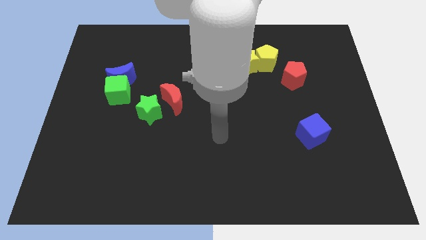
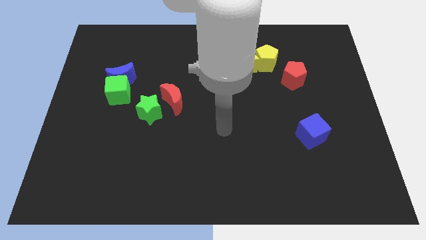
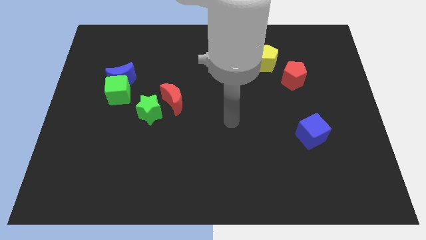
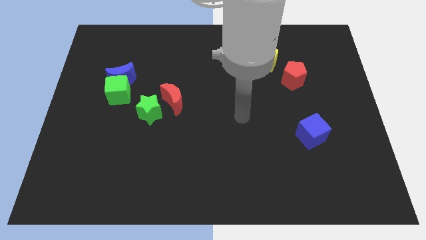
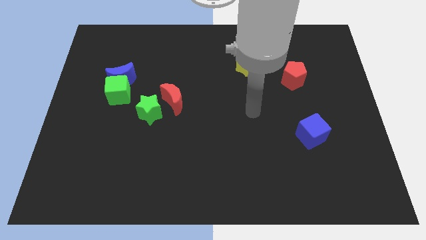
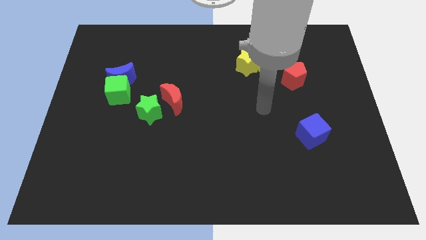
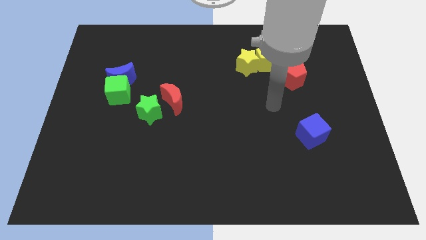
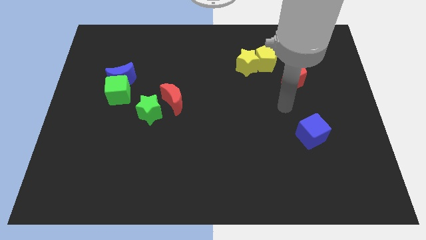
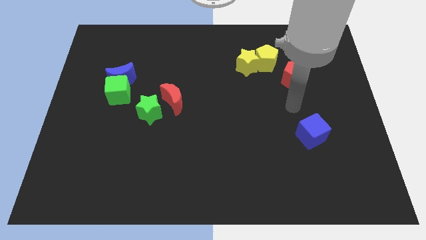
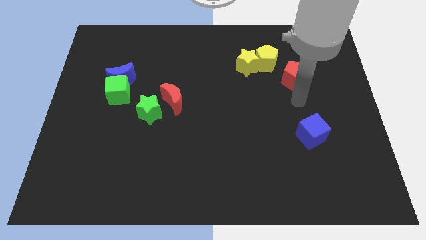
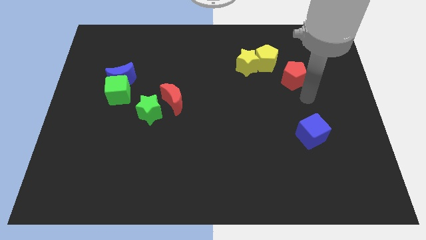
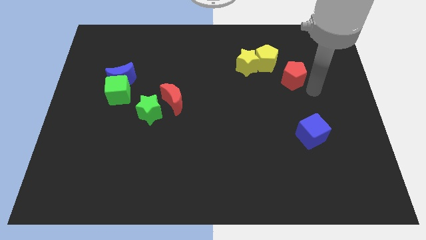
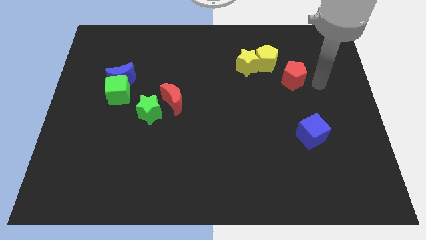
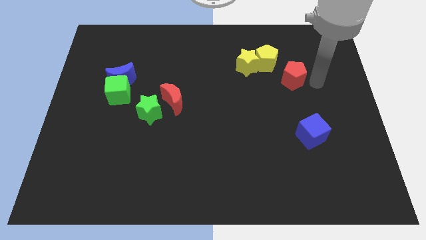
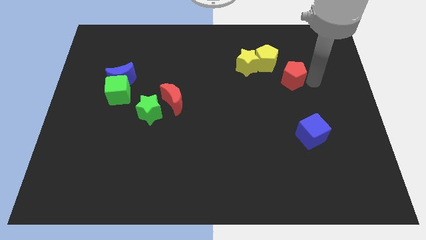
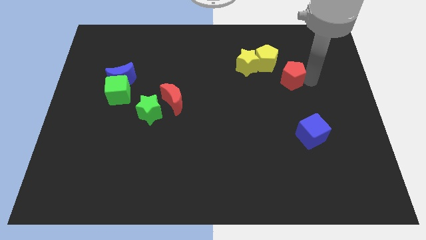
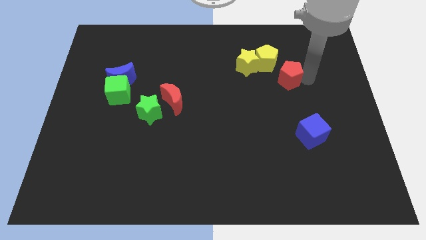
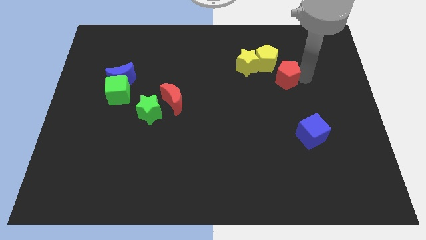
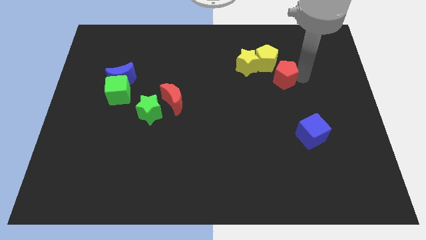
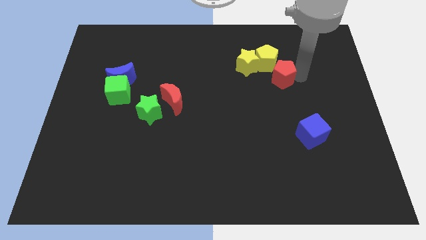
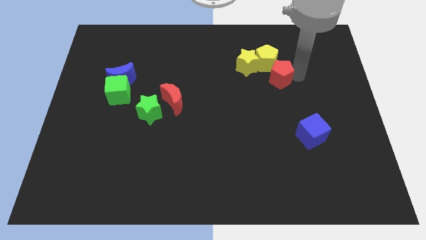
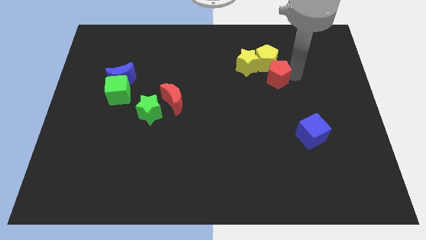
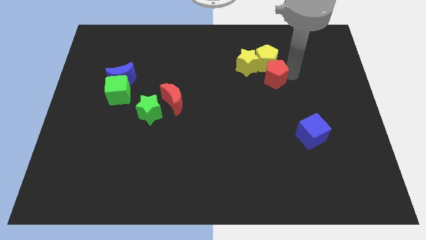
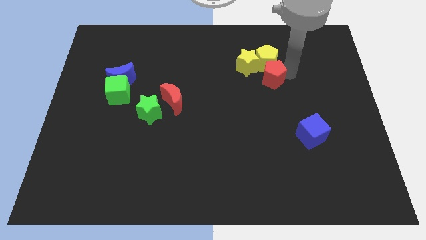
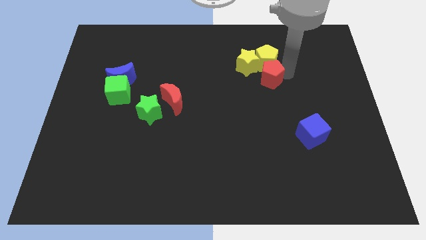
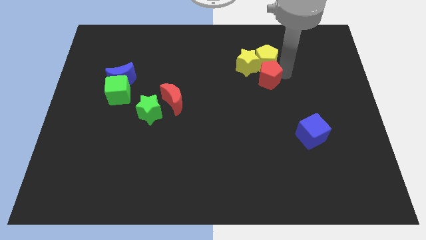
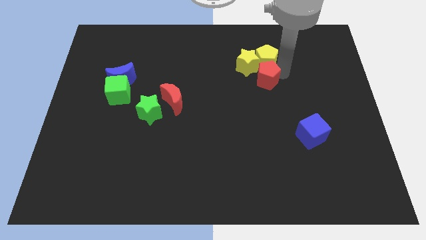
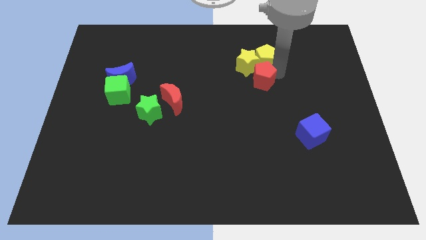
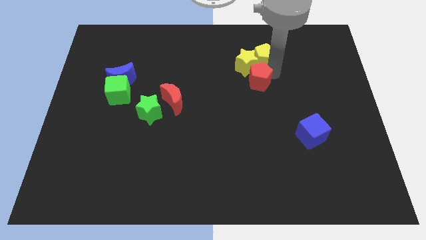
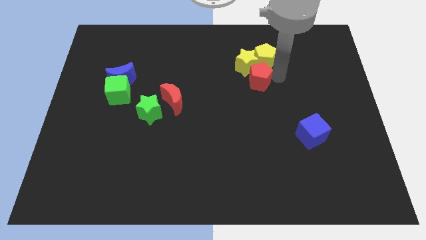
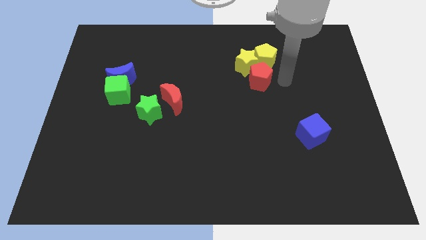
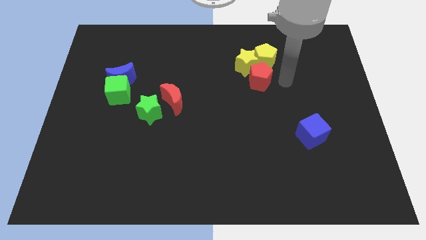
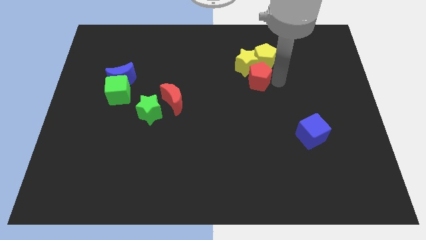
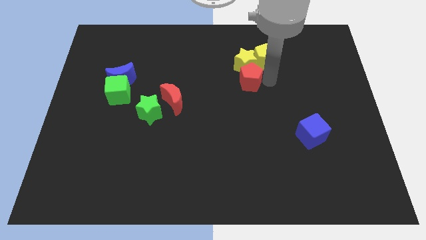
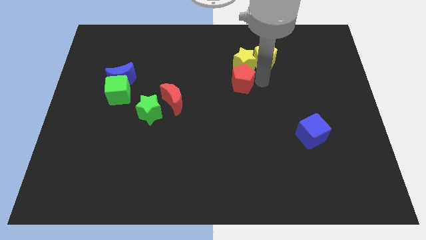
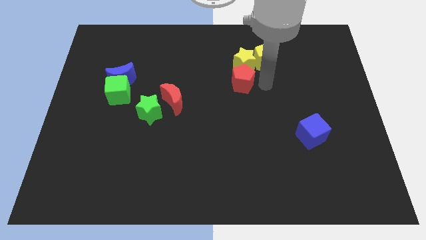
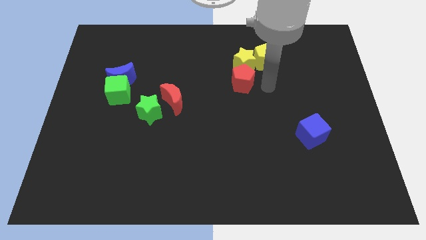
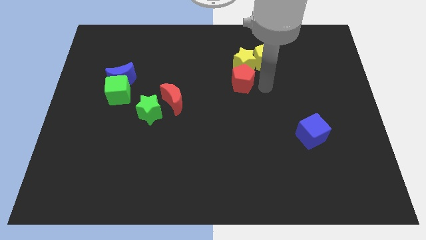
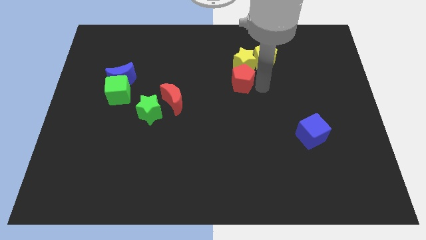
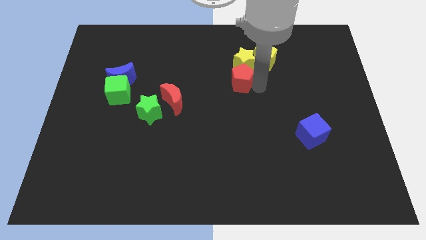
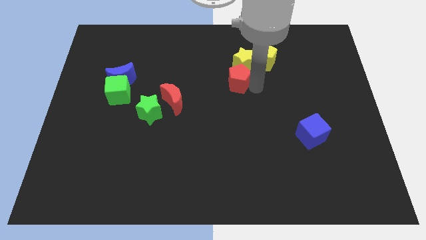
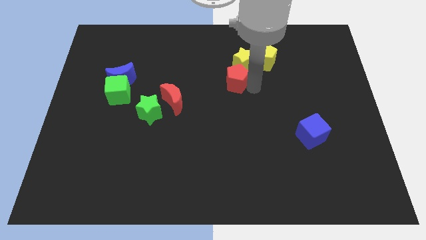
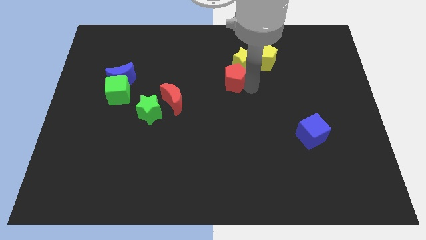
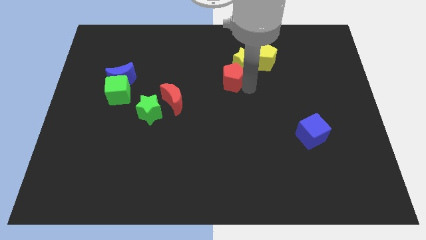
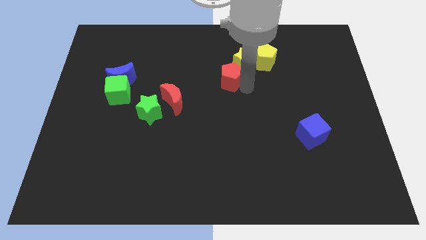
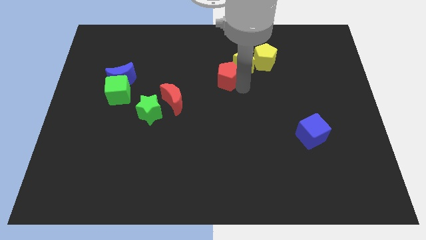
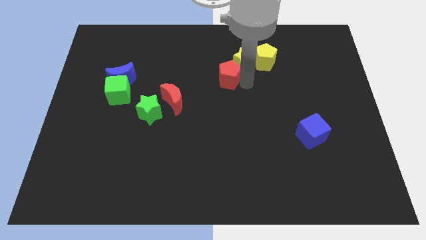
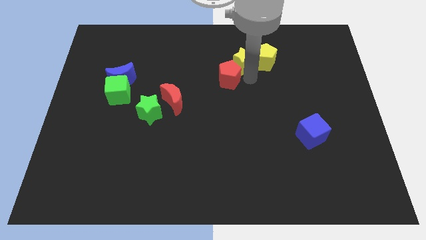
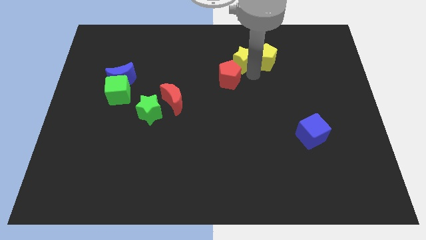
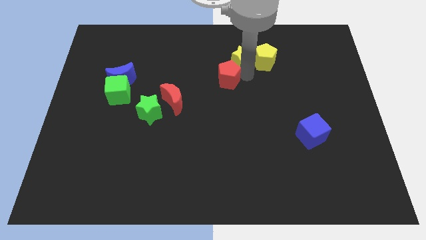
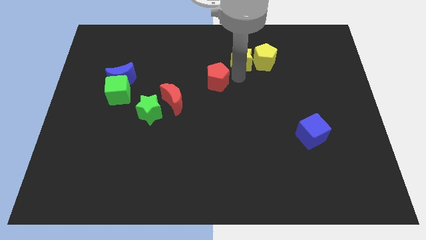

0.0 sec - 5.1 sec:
move the red pentagon diagonally up and to the right of the red moon

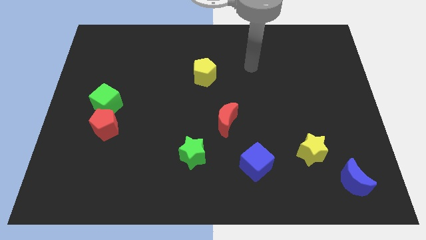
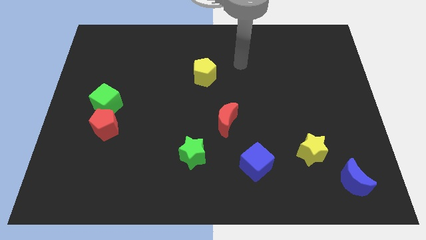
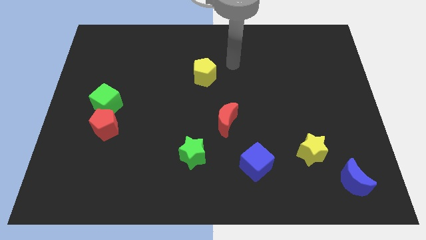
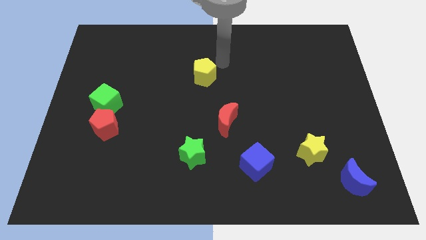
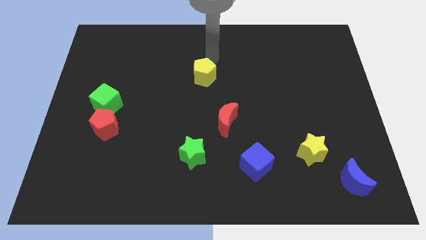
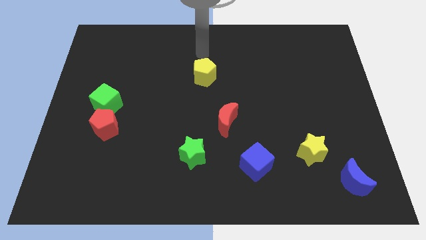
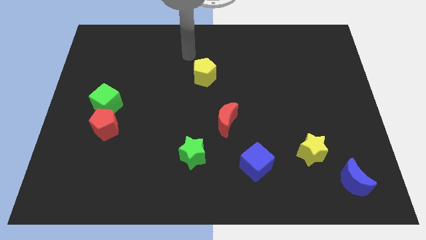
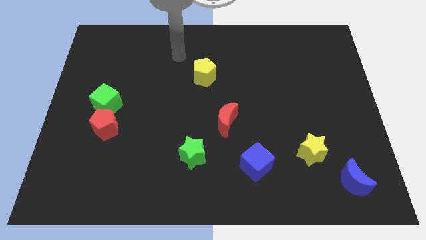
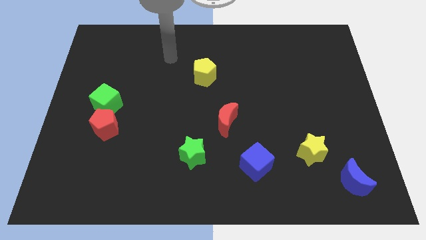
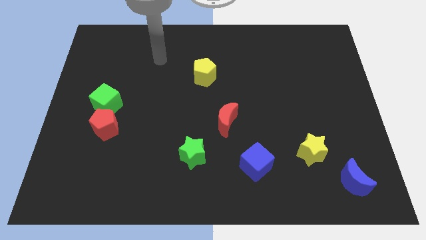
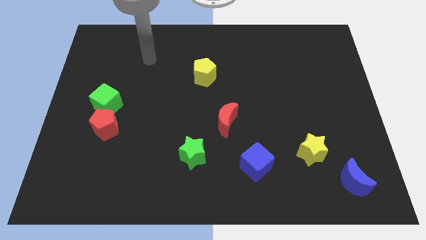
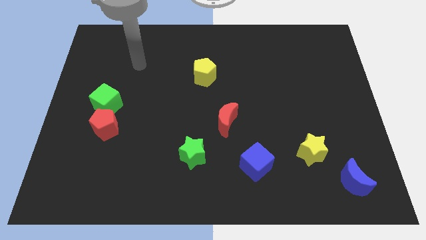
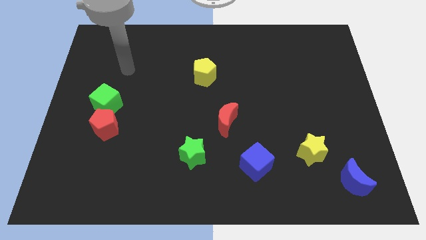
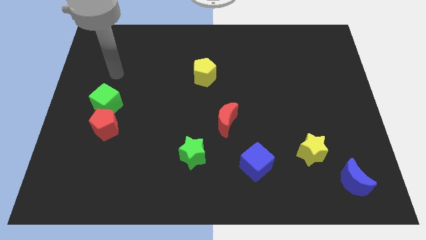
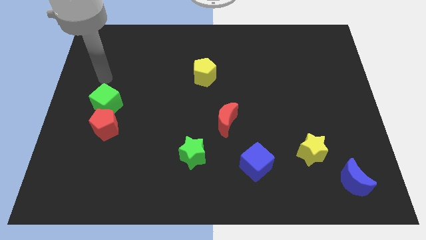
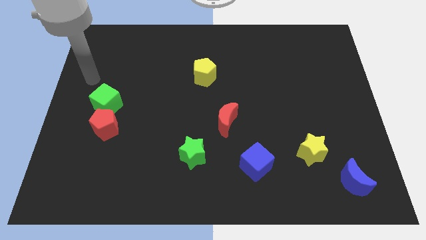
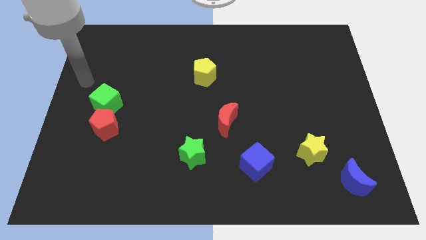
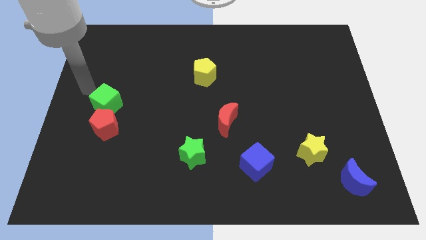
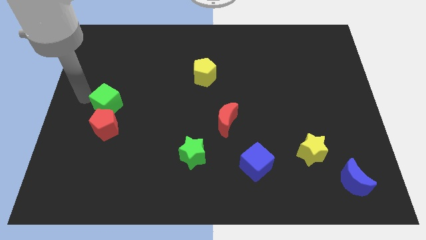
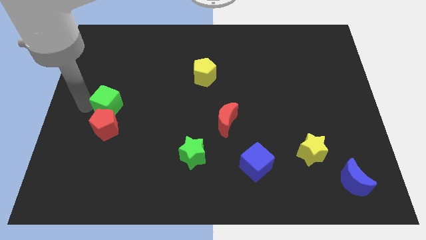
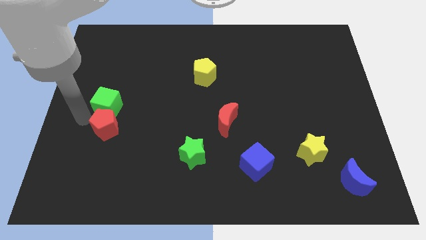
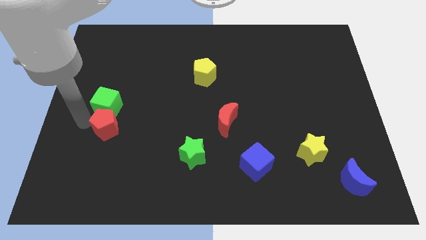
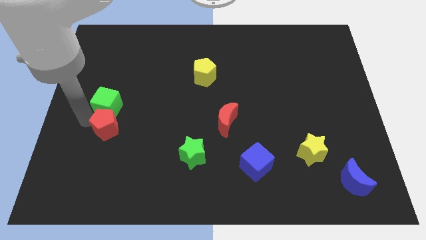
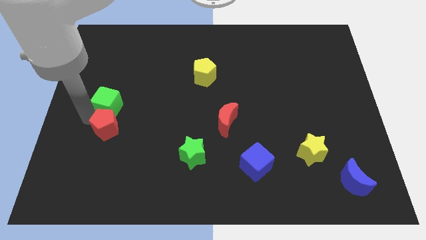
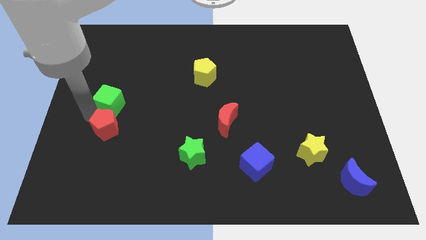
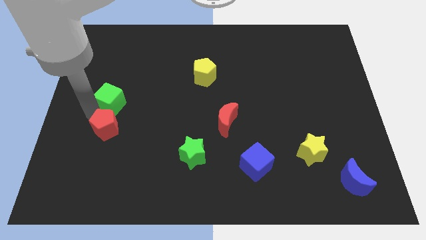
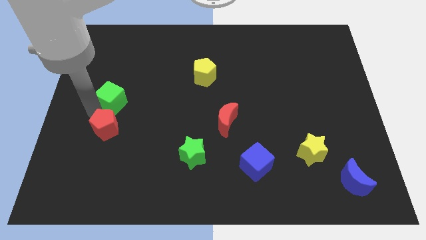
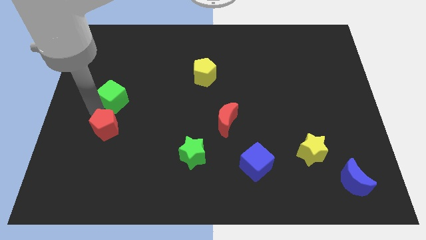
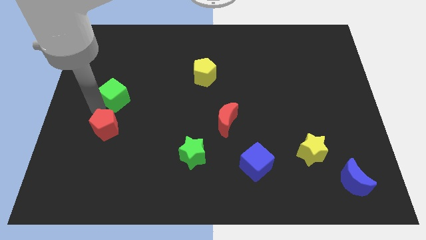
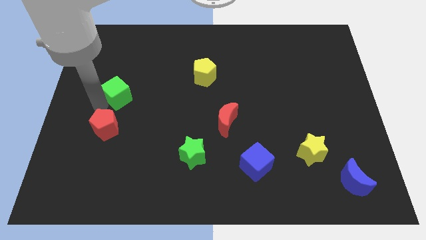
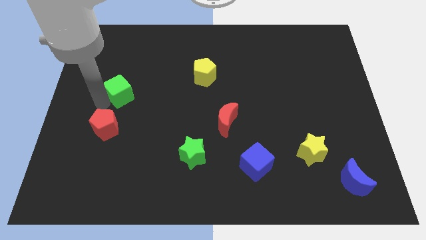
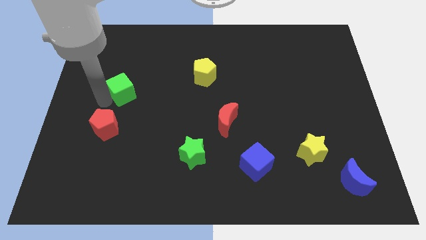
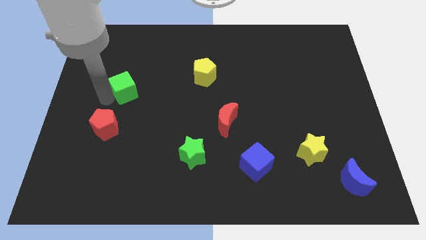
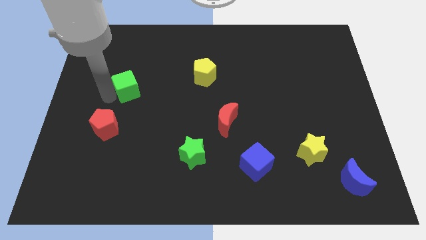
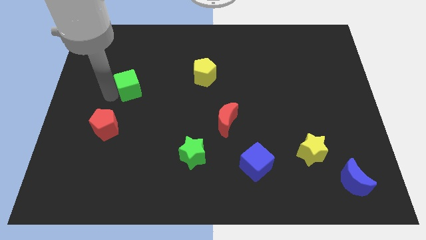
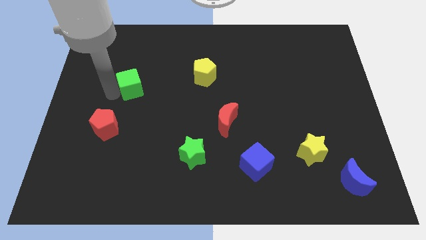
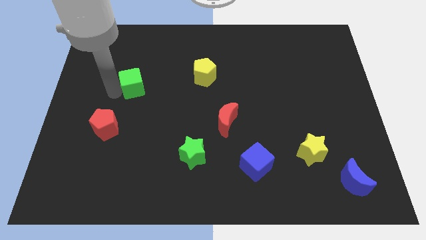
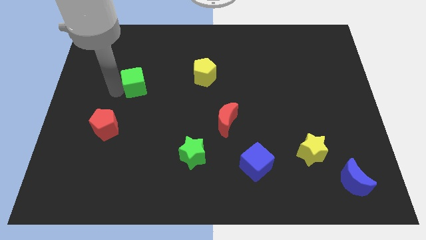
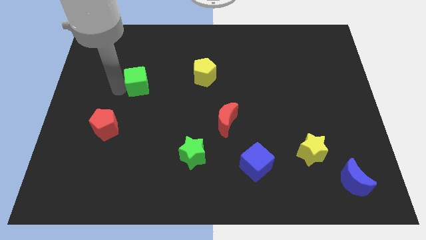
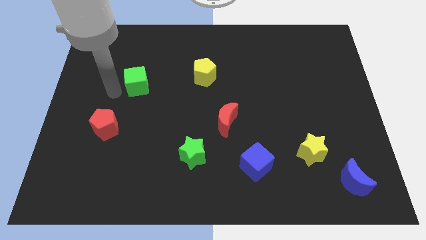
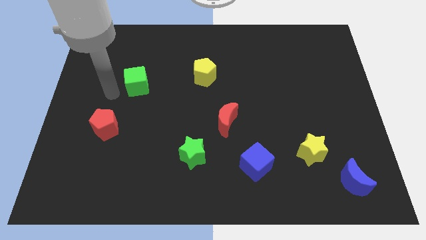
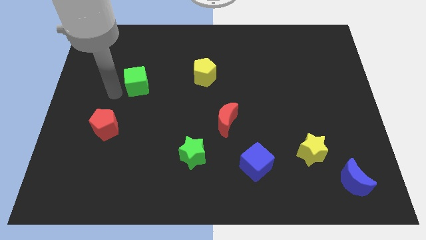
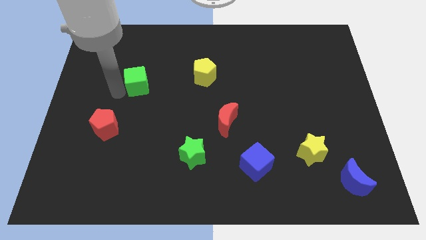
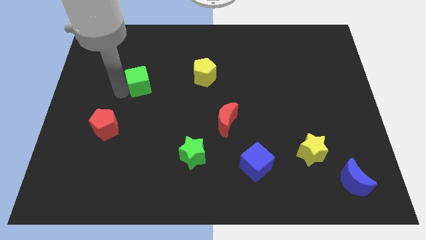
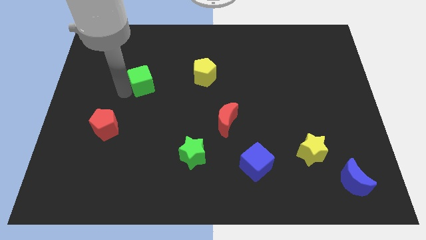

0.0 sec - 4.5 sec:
push the green cube to the left side of the yellow pentagon
